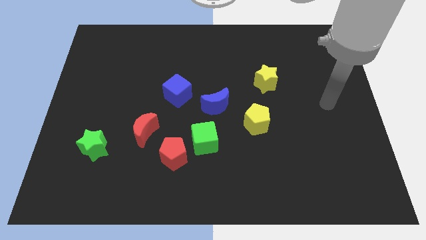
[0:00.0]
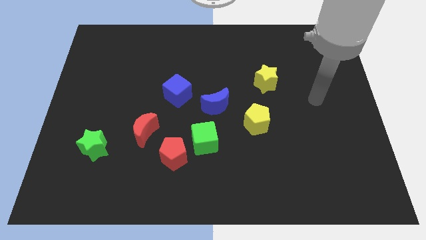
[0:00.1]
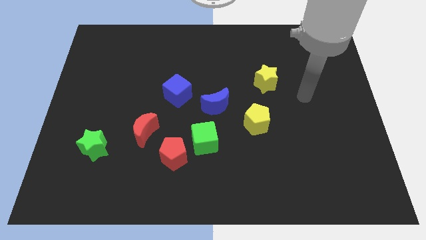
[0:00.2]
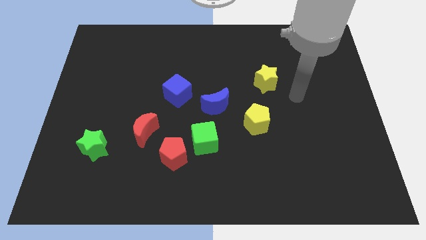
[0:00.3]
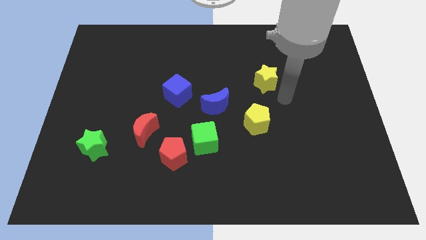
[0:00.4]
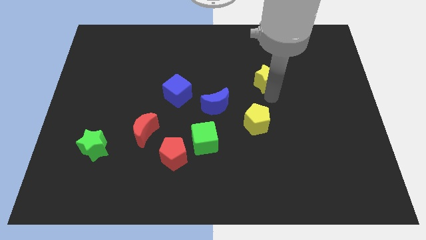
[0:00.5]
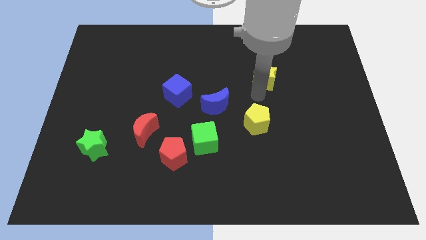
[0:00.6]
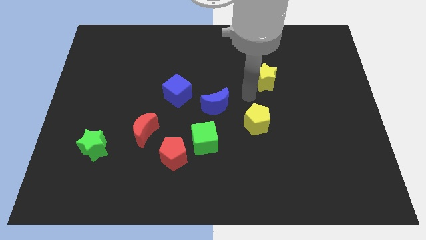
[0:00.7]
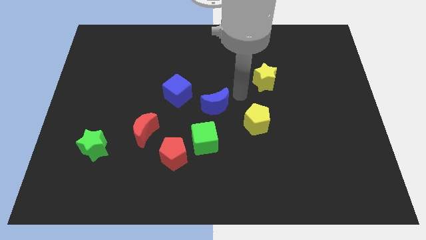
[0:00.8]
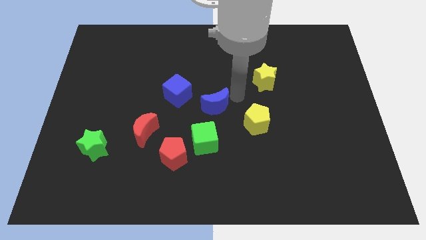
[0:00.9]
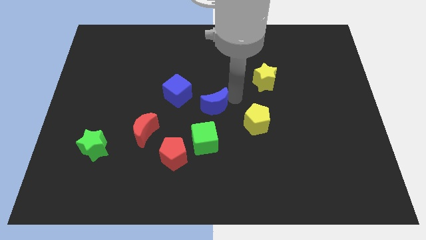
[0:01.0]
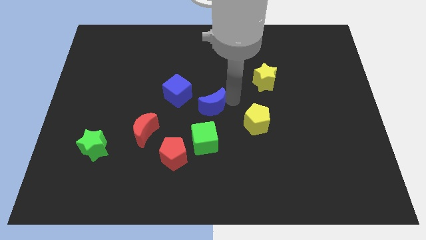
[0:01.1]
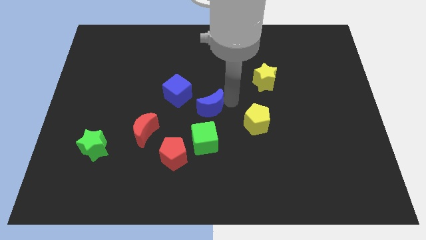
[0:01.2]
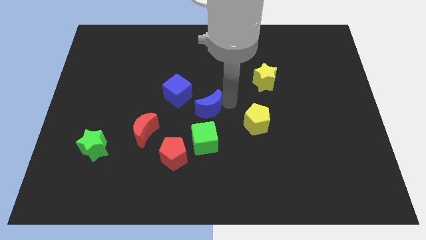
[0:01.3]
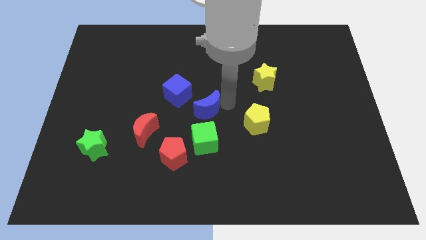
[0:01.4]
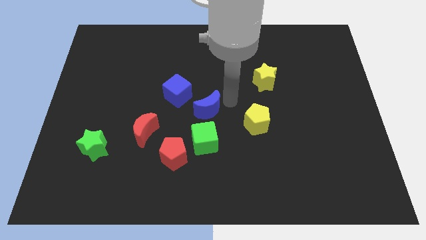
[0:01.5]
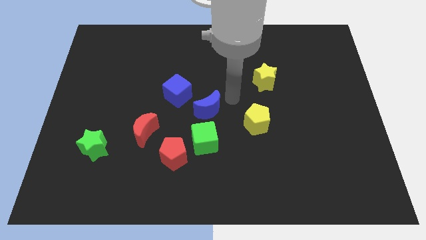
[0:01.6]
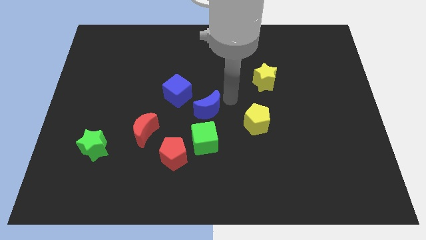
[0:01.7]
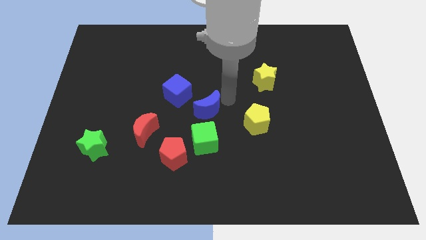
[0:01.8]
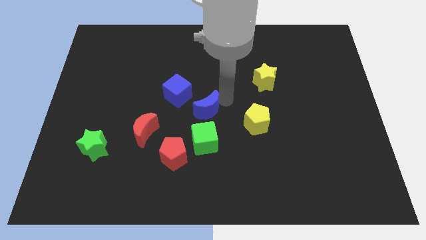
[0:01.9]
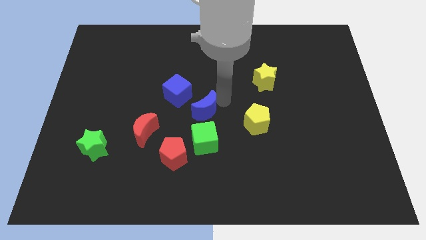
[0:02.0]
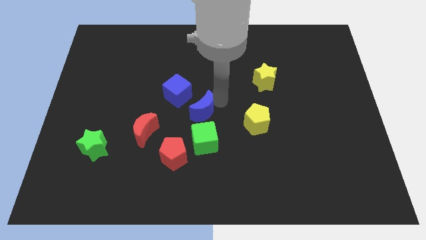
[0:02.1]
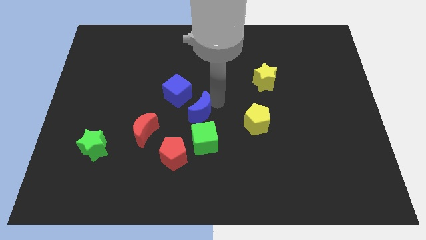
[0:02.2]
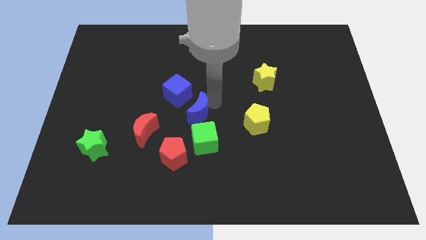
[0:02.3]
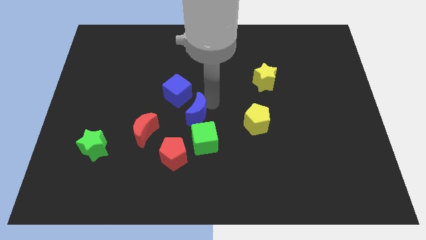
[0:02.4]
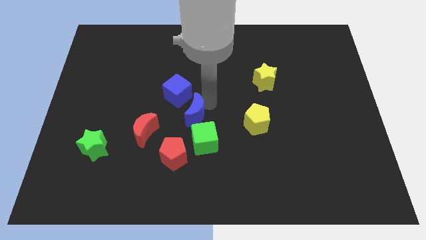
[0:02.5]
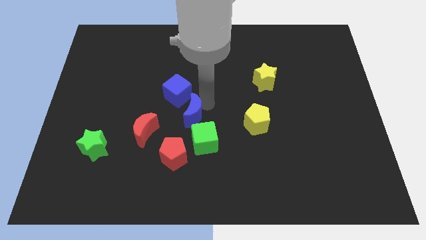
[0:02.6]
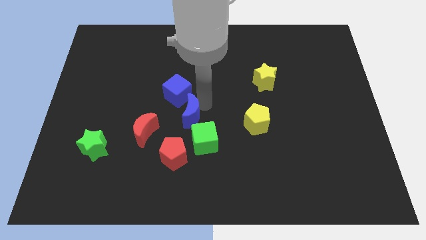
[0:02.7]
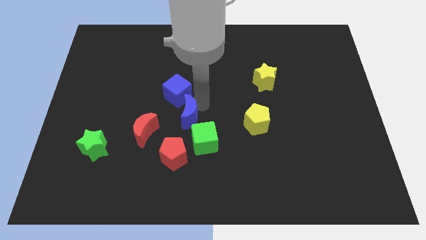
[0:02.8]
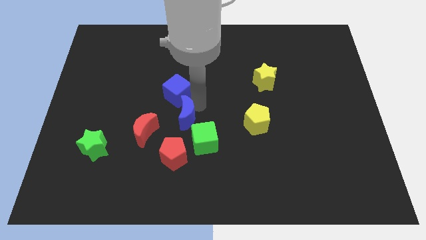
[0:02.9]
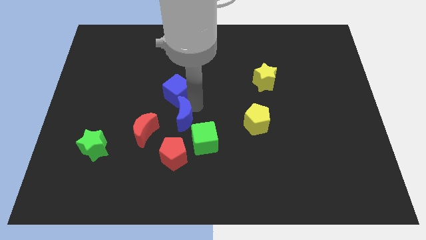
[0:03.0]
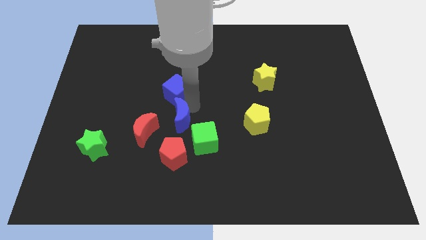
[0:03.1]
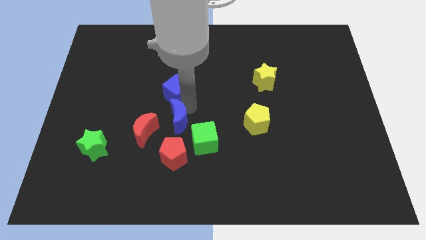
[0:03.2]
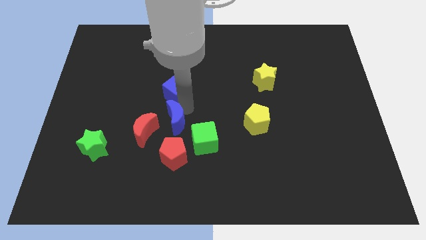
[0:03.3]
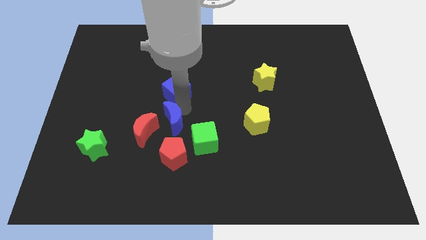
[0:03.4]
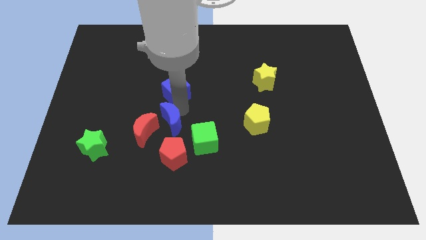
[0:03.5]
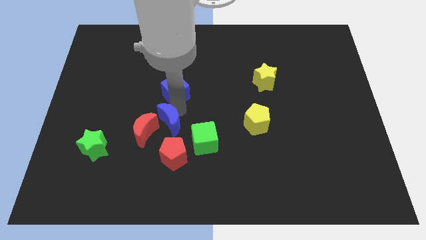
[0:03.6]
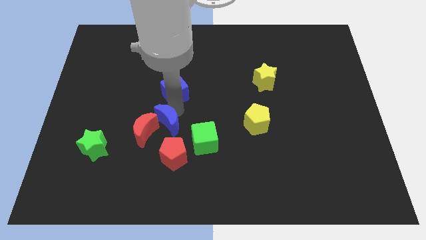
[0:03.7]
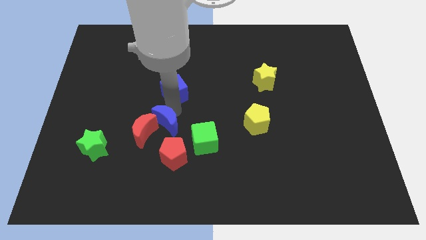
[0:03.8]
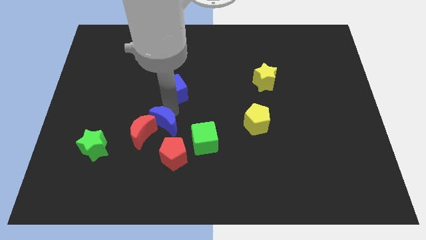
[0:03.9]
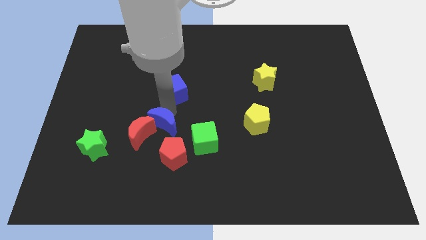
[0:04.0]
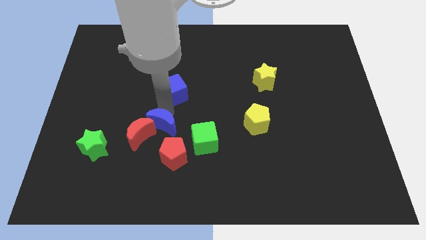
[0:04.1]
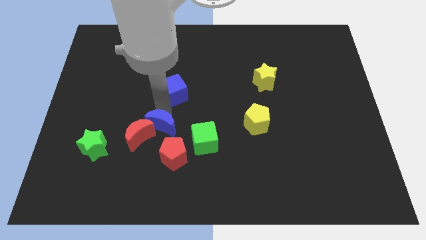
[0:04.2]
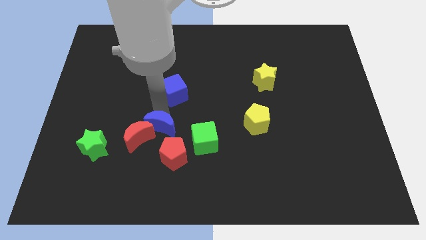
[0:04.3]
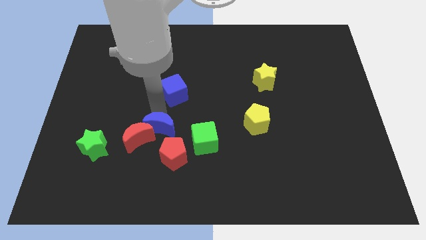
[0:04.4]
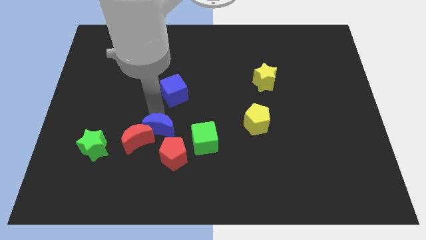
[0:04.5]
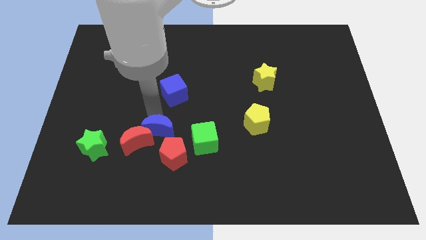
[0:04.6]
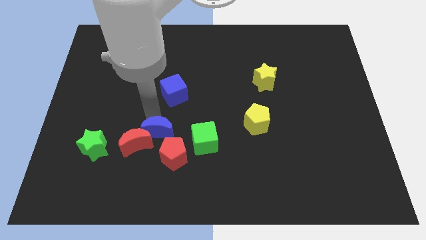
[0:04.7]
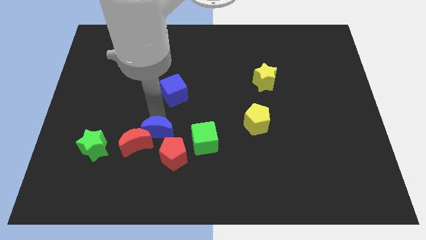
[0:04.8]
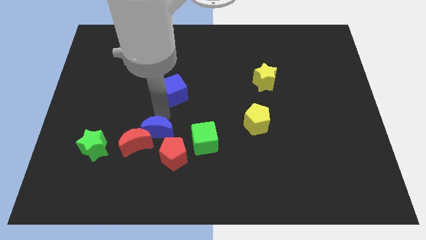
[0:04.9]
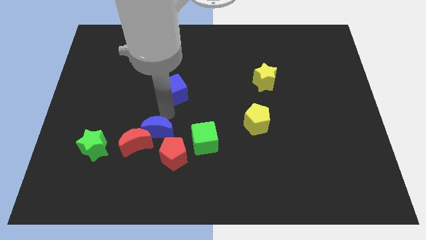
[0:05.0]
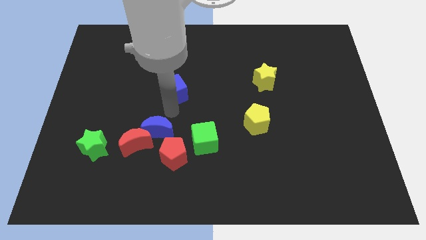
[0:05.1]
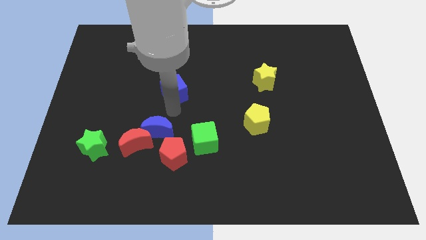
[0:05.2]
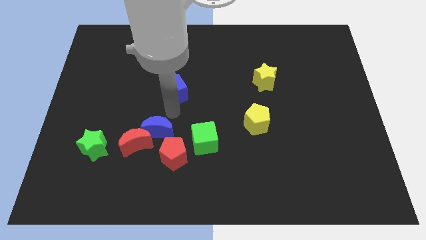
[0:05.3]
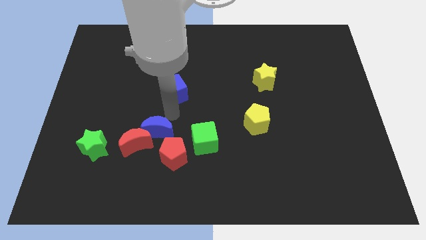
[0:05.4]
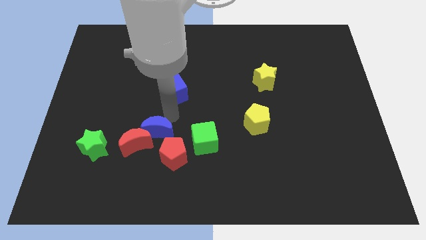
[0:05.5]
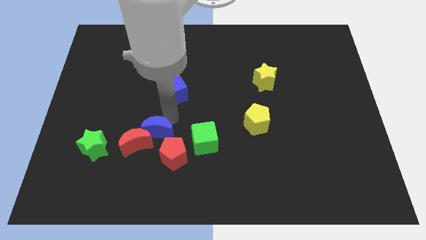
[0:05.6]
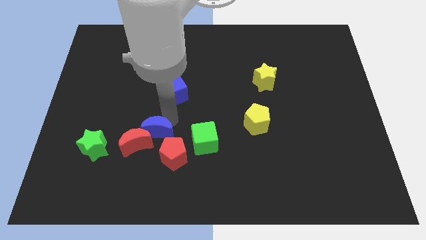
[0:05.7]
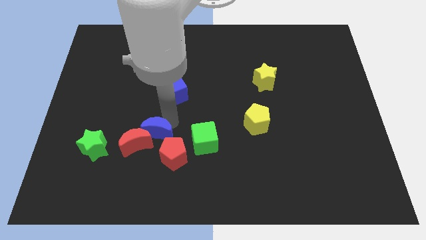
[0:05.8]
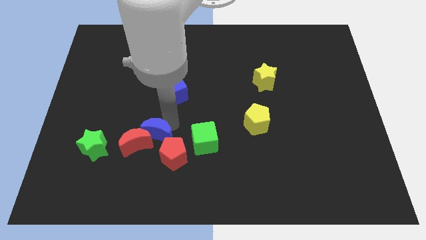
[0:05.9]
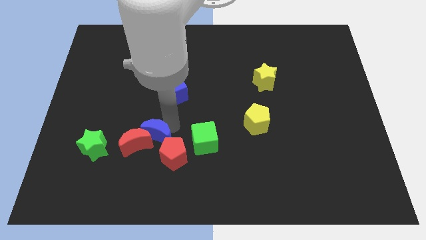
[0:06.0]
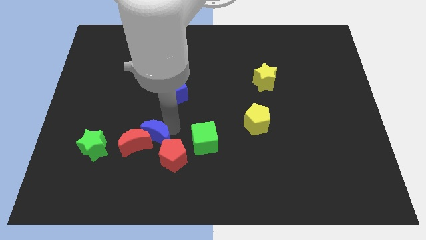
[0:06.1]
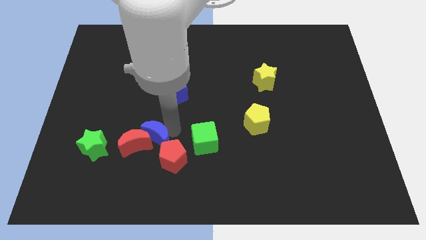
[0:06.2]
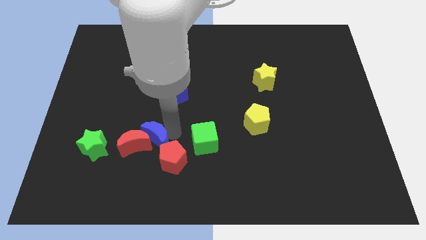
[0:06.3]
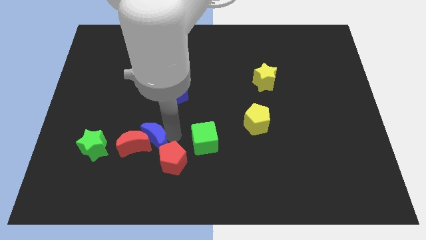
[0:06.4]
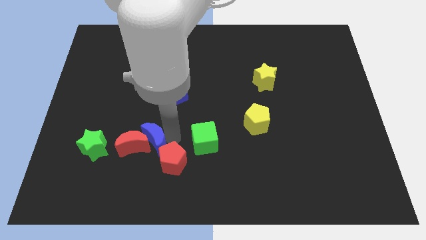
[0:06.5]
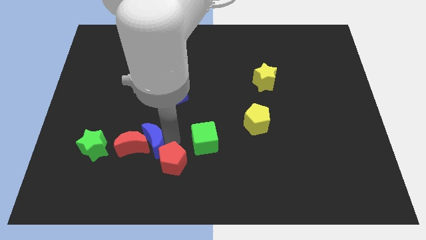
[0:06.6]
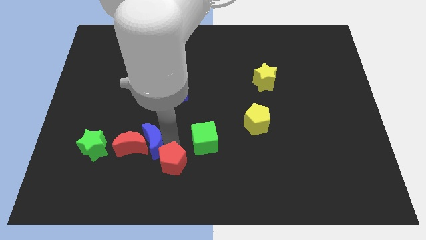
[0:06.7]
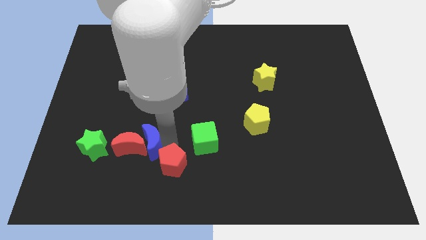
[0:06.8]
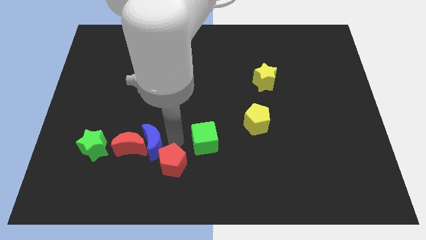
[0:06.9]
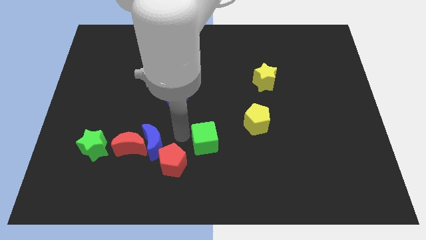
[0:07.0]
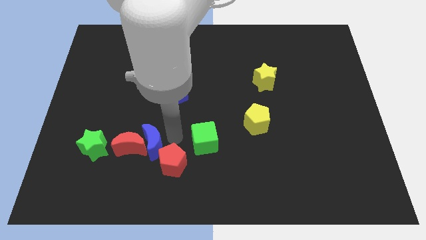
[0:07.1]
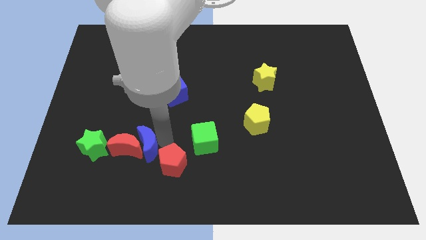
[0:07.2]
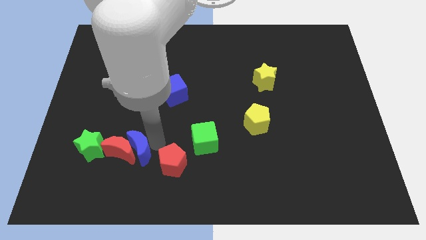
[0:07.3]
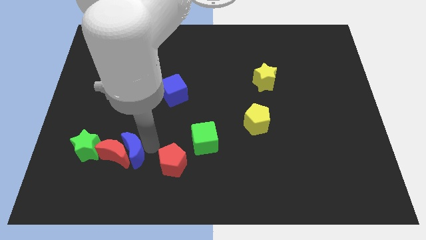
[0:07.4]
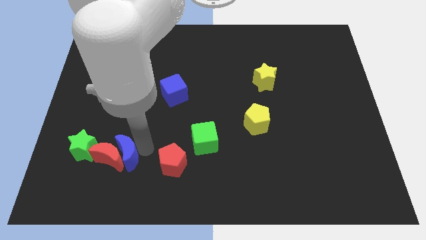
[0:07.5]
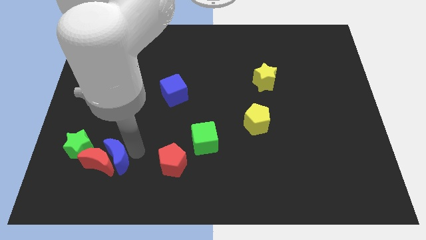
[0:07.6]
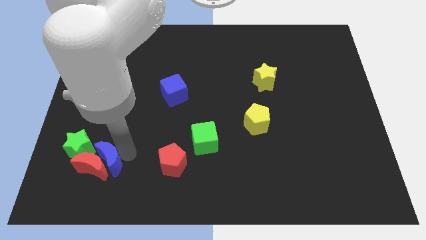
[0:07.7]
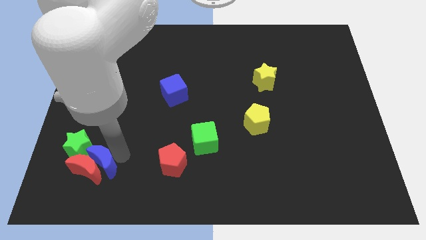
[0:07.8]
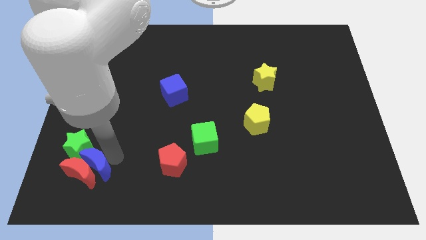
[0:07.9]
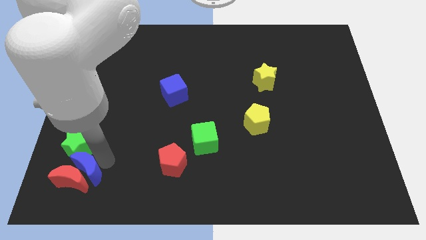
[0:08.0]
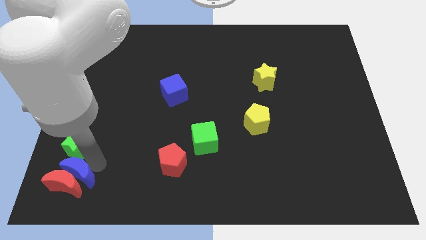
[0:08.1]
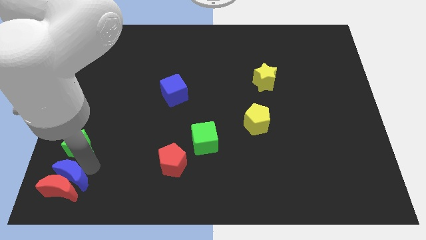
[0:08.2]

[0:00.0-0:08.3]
slide the blue moon to the bottom left corner
